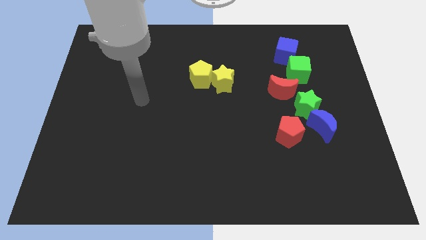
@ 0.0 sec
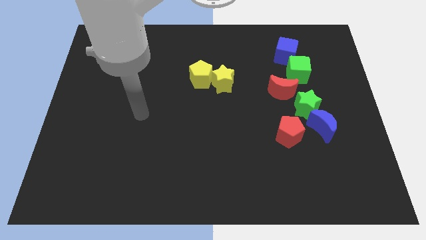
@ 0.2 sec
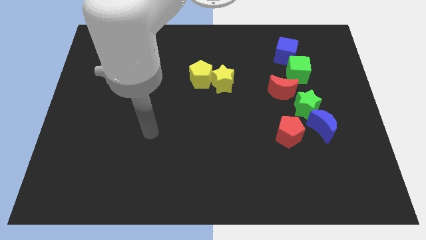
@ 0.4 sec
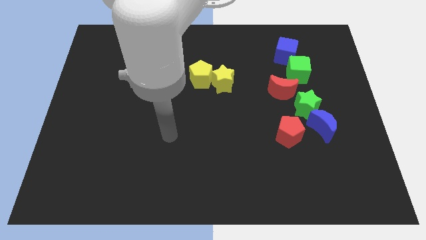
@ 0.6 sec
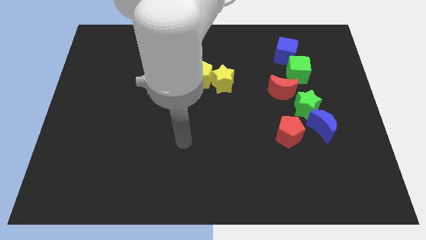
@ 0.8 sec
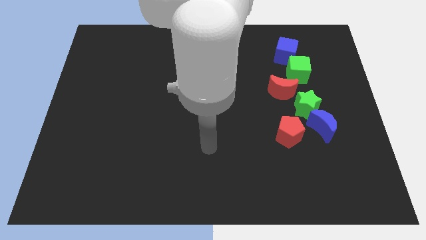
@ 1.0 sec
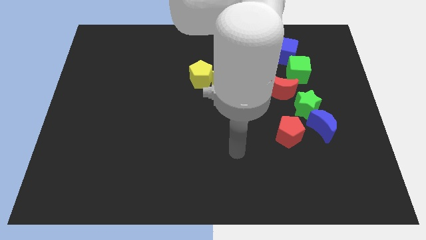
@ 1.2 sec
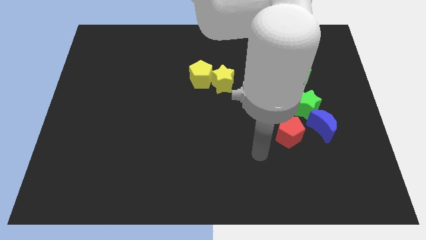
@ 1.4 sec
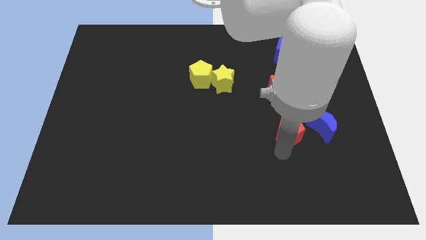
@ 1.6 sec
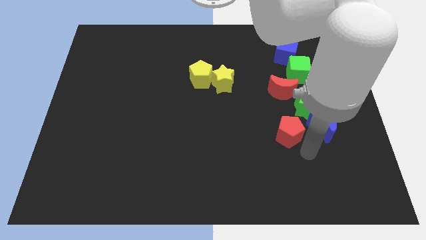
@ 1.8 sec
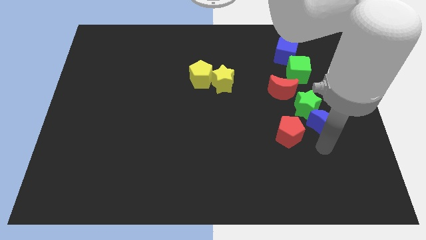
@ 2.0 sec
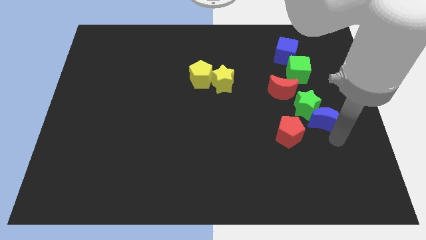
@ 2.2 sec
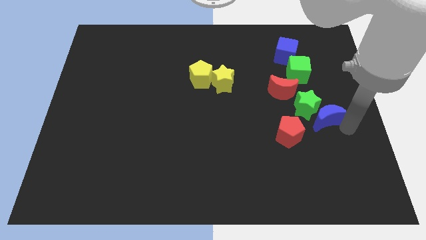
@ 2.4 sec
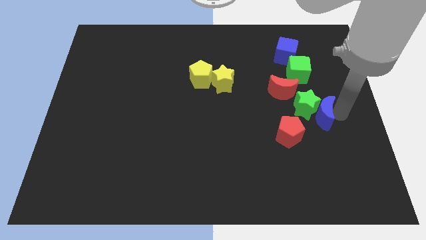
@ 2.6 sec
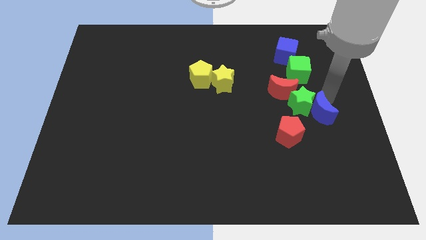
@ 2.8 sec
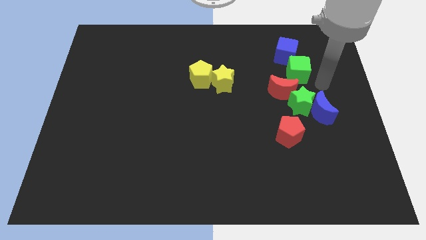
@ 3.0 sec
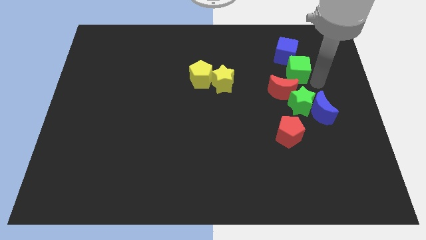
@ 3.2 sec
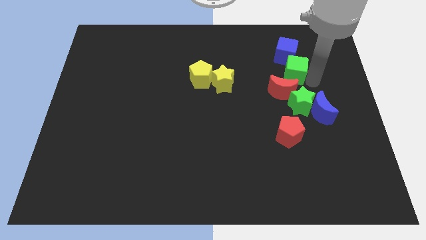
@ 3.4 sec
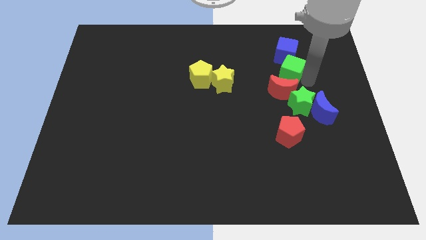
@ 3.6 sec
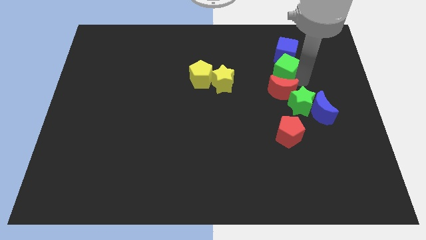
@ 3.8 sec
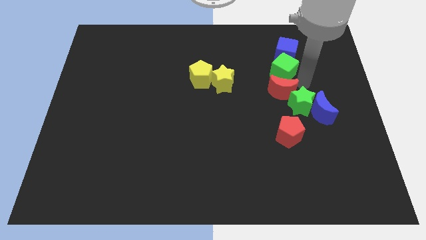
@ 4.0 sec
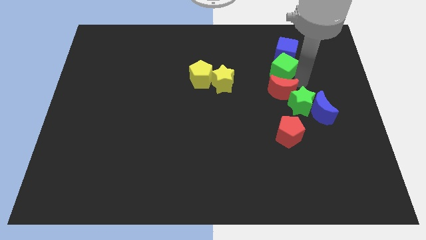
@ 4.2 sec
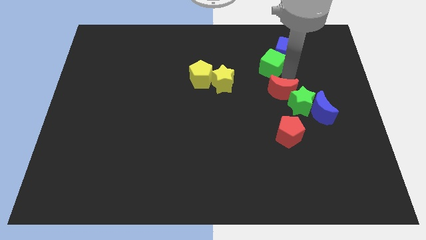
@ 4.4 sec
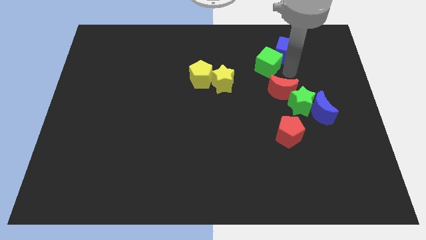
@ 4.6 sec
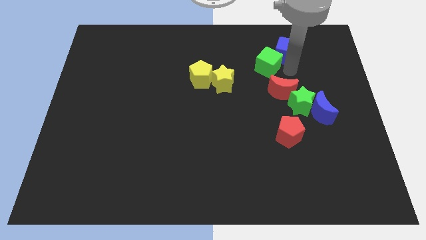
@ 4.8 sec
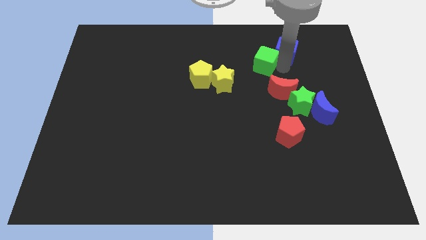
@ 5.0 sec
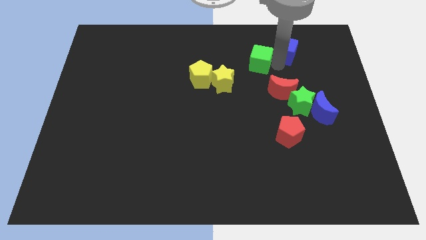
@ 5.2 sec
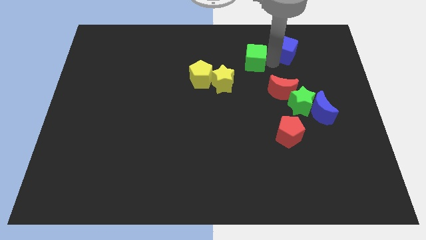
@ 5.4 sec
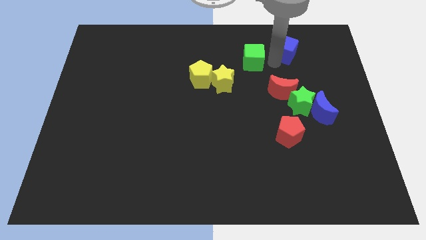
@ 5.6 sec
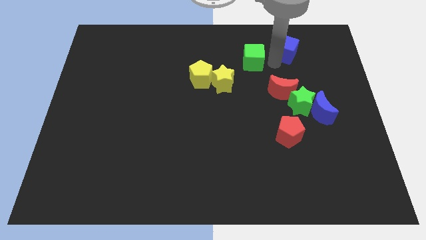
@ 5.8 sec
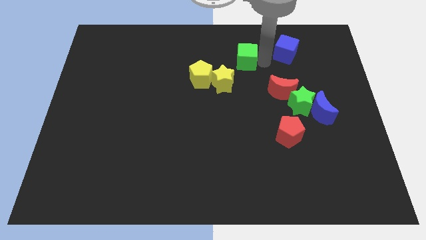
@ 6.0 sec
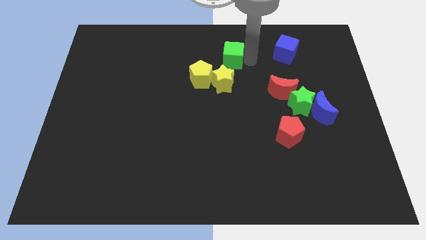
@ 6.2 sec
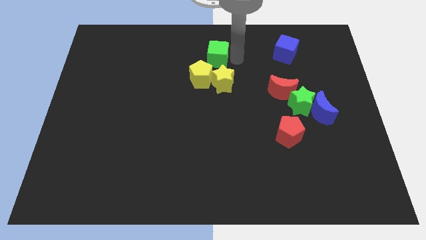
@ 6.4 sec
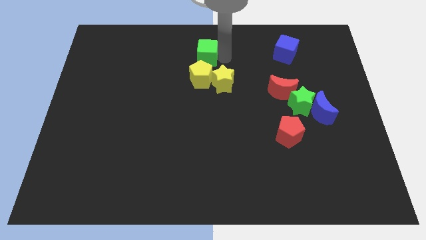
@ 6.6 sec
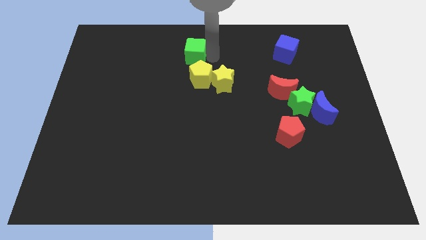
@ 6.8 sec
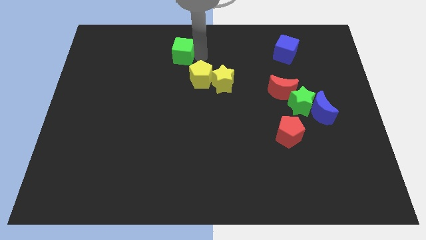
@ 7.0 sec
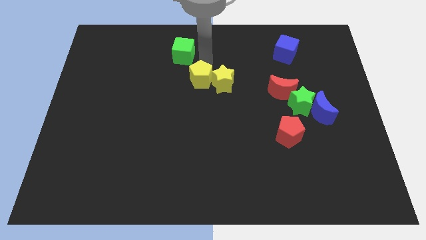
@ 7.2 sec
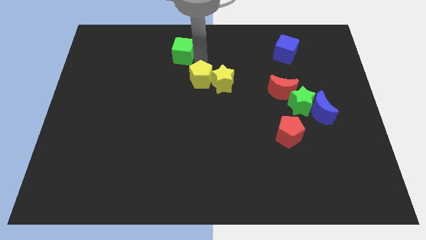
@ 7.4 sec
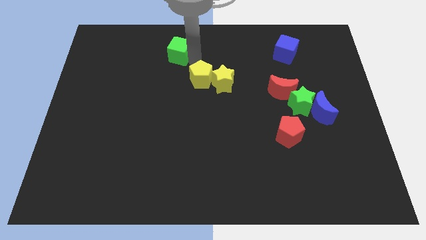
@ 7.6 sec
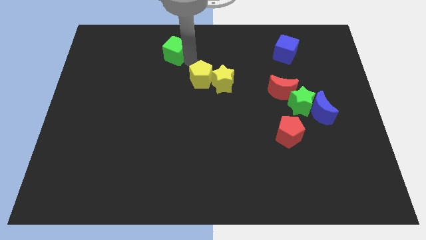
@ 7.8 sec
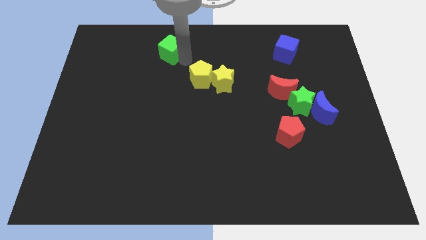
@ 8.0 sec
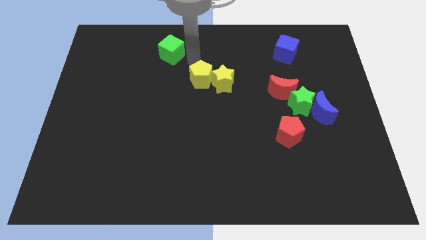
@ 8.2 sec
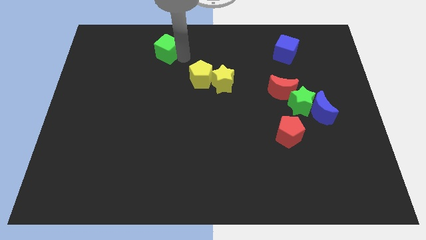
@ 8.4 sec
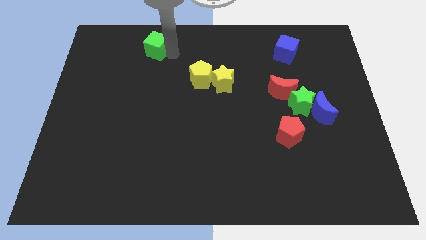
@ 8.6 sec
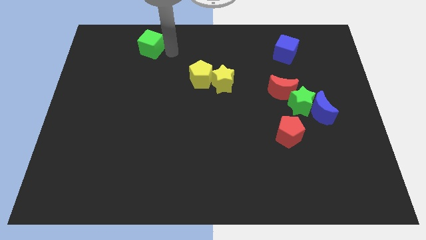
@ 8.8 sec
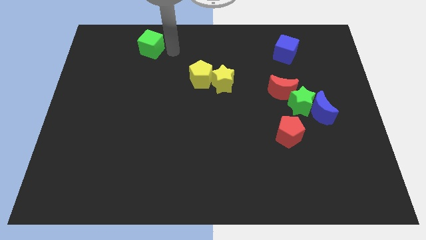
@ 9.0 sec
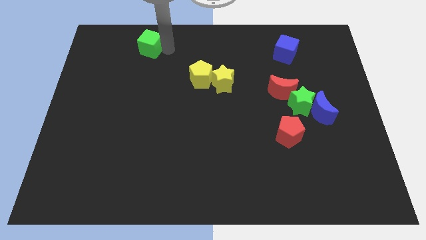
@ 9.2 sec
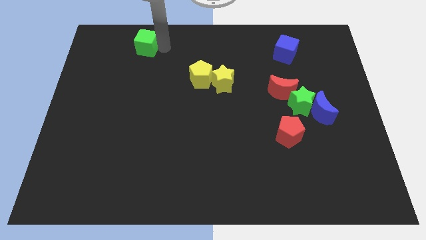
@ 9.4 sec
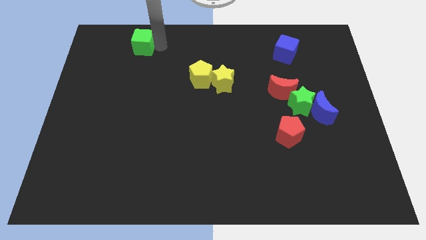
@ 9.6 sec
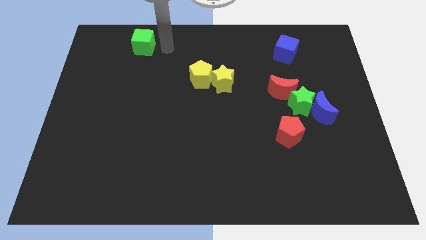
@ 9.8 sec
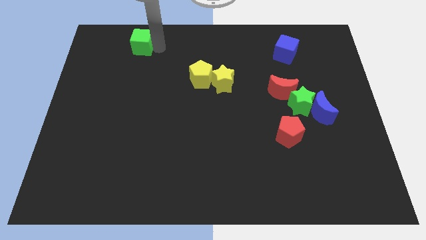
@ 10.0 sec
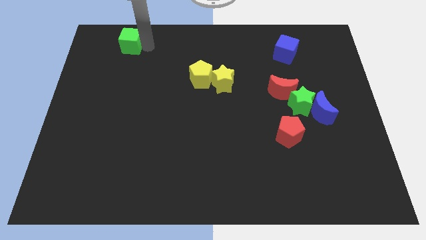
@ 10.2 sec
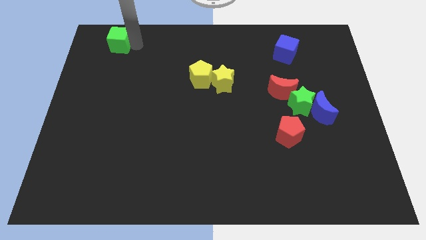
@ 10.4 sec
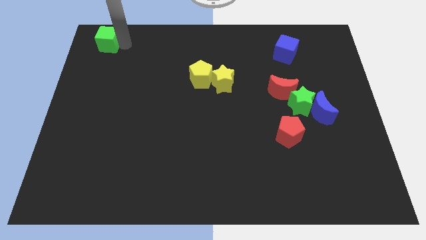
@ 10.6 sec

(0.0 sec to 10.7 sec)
slide the green cube to the top left
